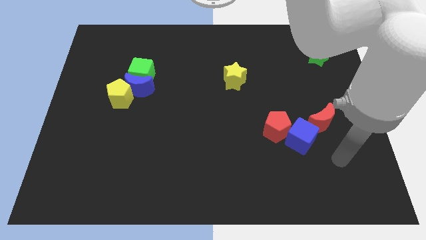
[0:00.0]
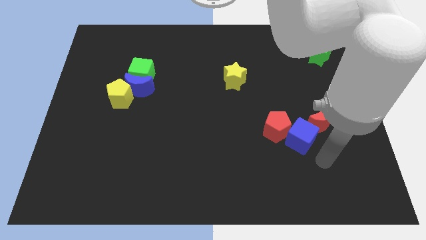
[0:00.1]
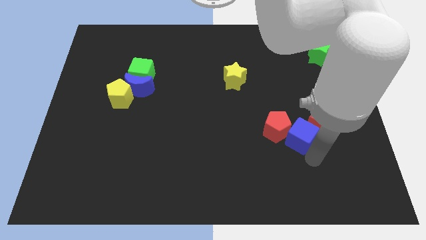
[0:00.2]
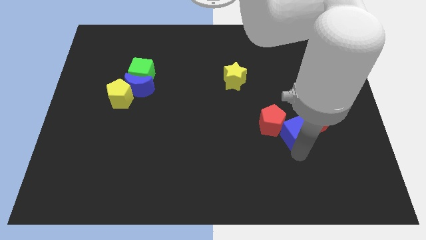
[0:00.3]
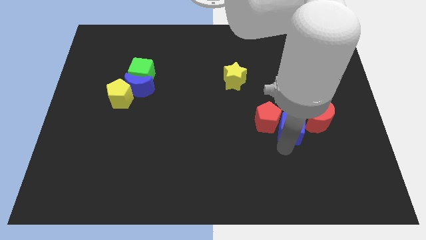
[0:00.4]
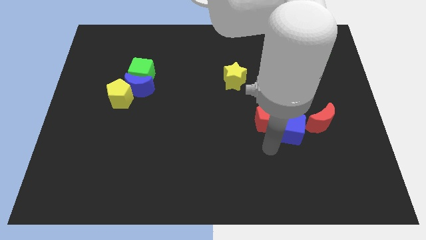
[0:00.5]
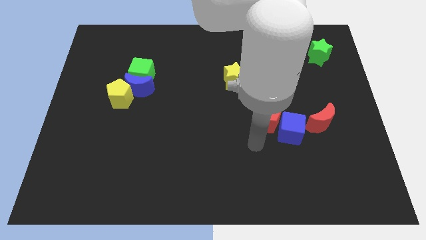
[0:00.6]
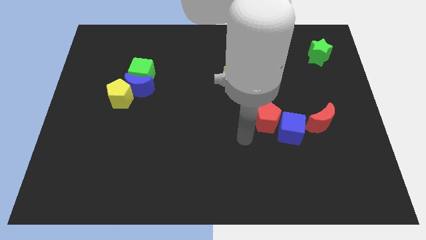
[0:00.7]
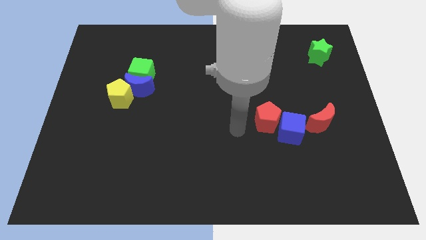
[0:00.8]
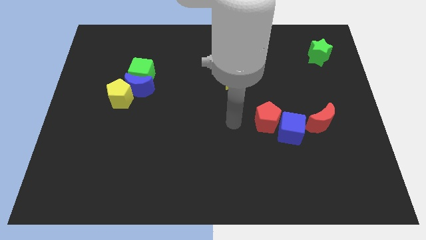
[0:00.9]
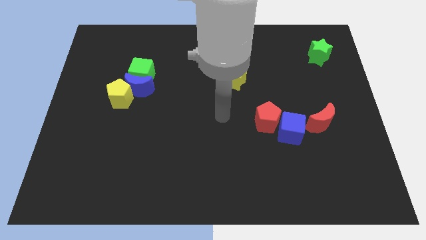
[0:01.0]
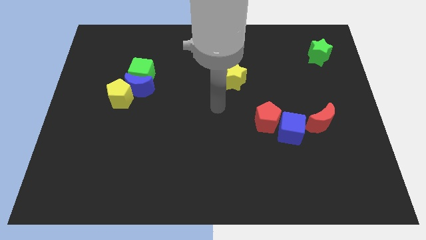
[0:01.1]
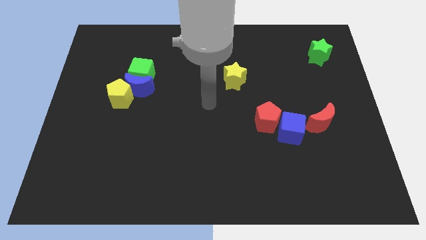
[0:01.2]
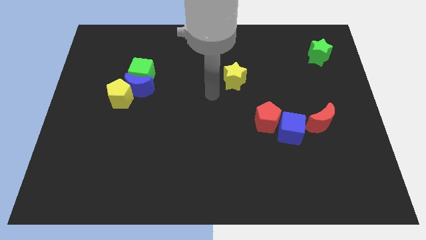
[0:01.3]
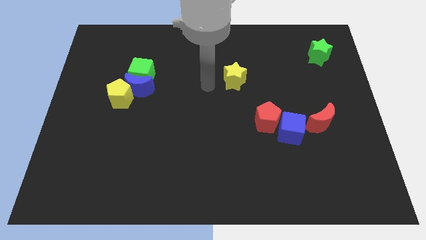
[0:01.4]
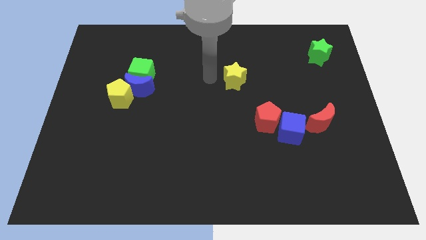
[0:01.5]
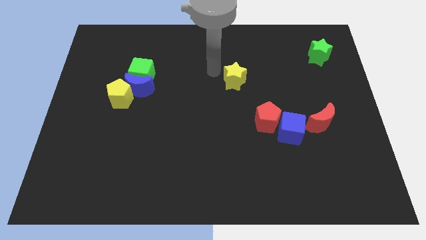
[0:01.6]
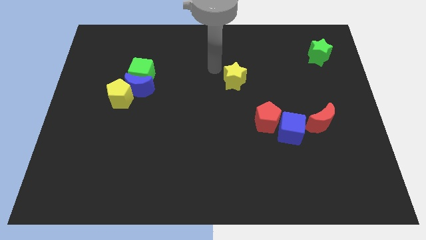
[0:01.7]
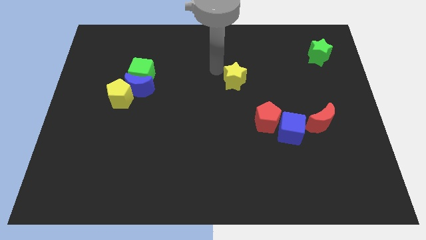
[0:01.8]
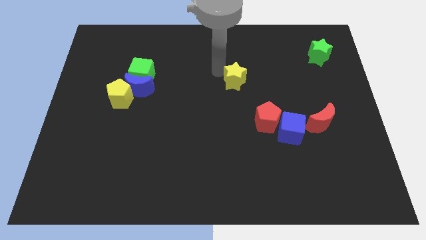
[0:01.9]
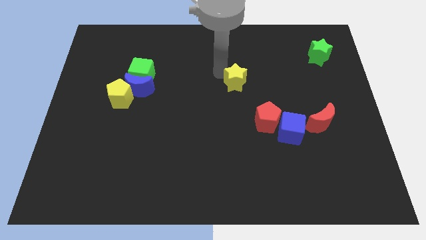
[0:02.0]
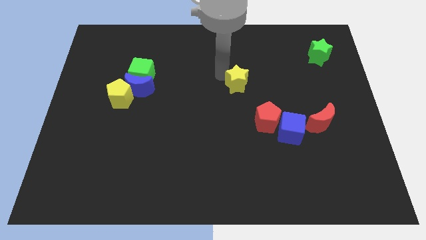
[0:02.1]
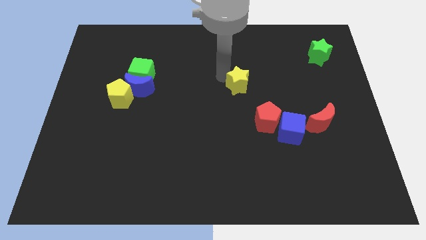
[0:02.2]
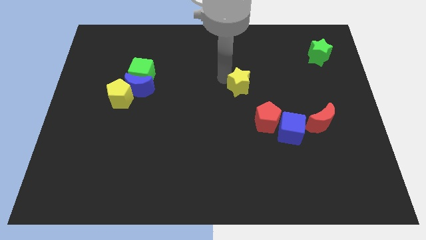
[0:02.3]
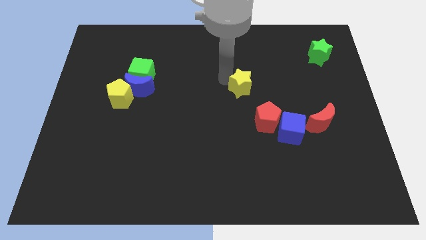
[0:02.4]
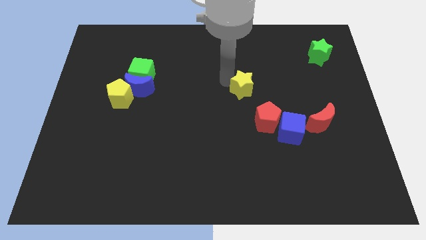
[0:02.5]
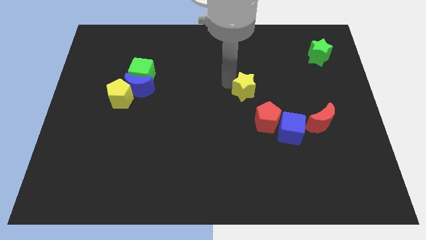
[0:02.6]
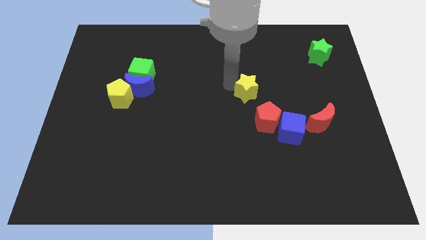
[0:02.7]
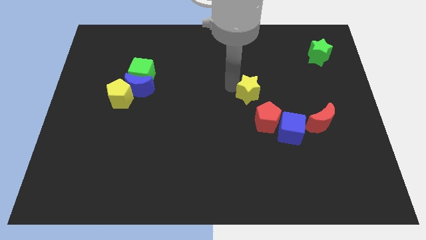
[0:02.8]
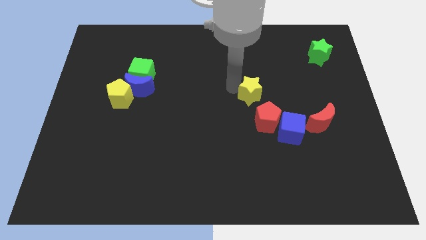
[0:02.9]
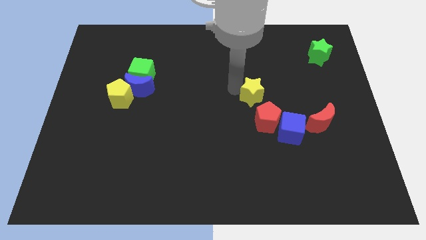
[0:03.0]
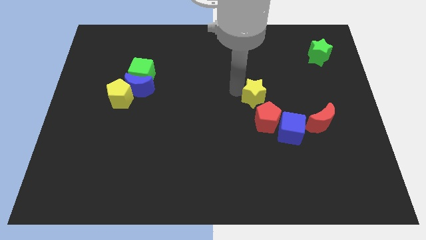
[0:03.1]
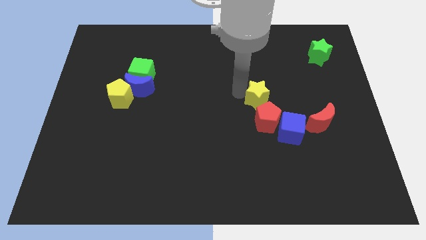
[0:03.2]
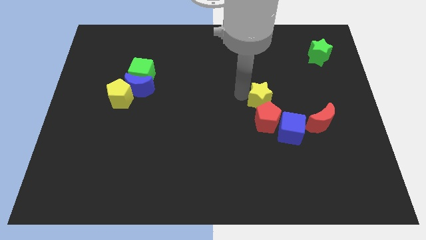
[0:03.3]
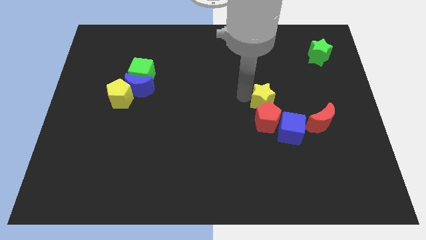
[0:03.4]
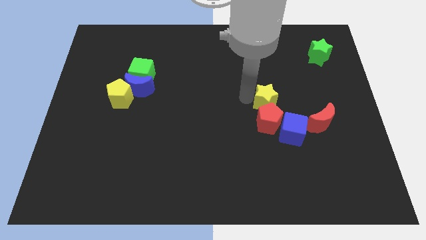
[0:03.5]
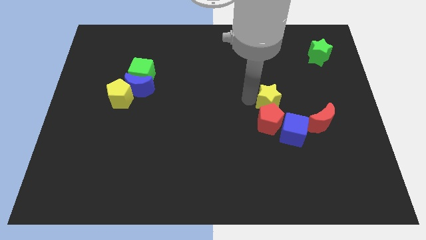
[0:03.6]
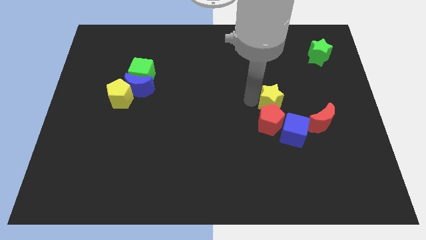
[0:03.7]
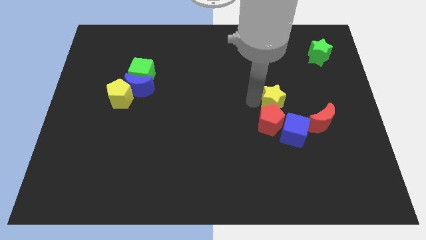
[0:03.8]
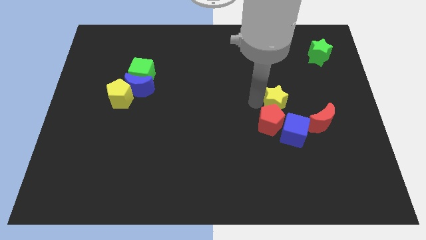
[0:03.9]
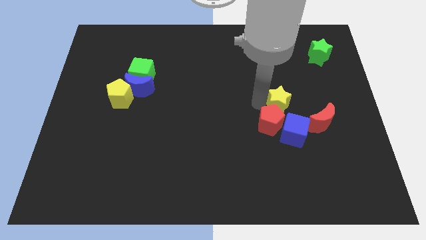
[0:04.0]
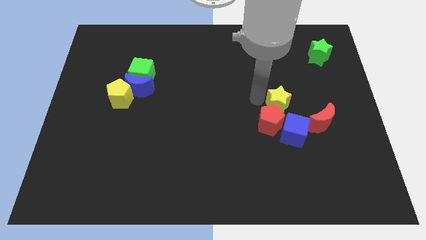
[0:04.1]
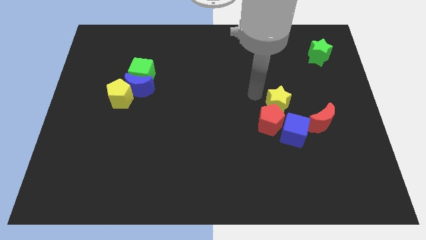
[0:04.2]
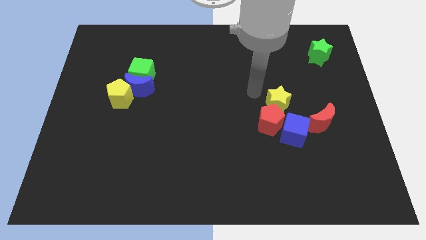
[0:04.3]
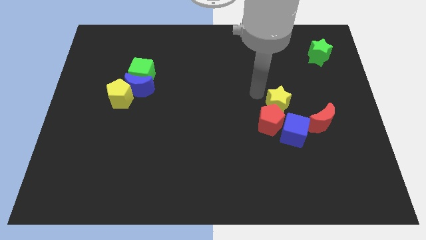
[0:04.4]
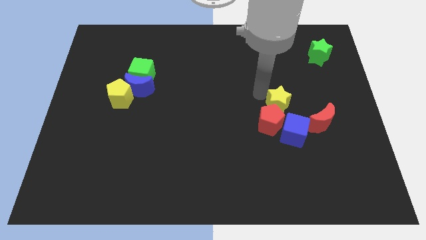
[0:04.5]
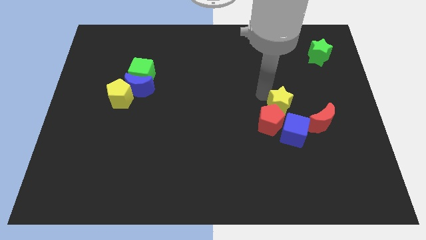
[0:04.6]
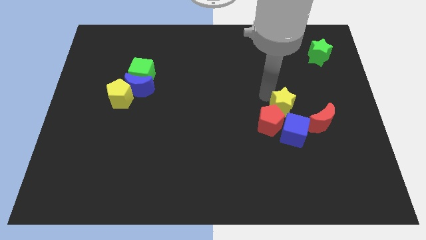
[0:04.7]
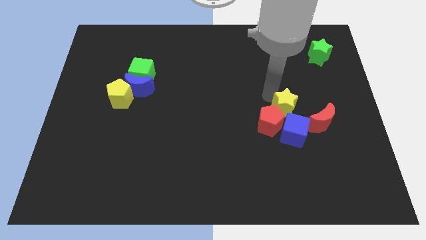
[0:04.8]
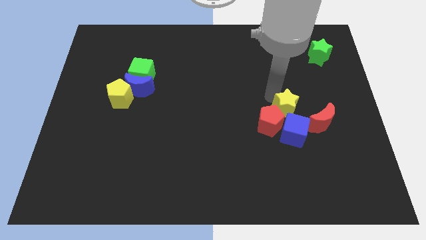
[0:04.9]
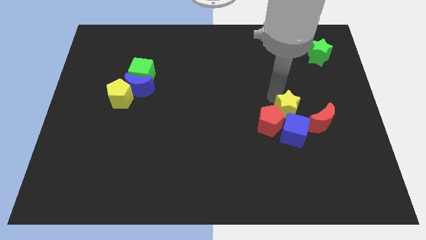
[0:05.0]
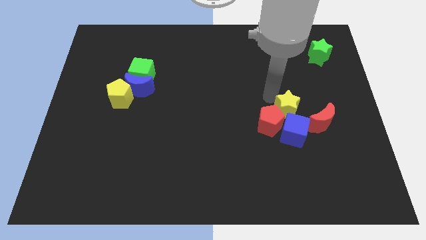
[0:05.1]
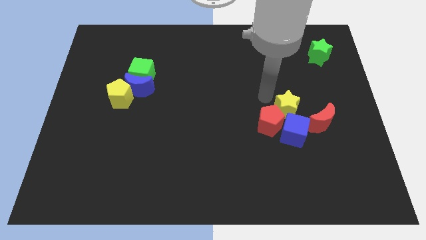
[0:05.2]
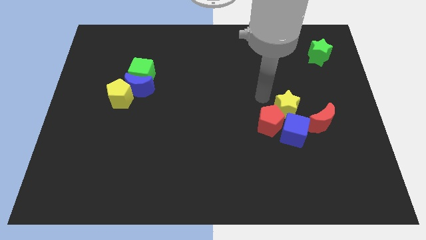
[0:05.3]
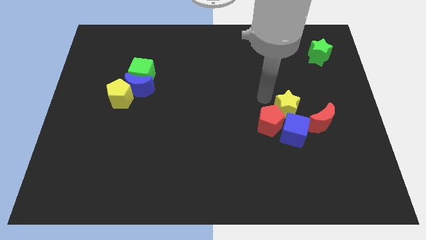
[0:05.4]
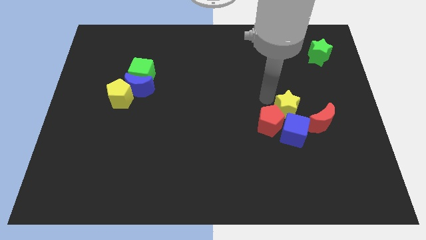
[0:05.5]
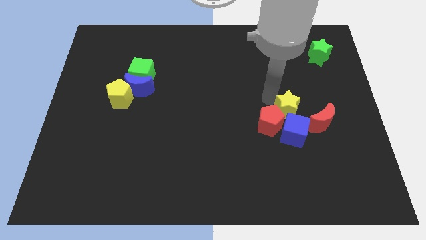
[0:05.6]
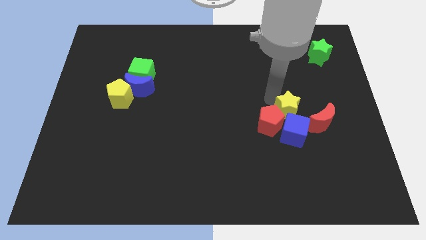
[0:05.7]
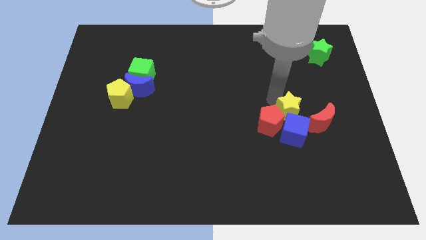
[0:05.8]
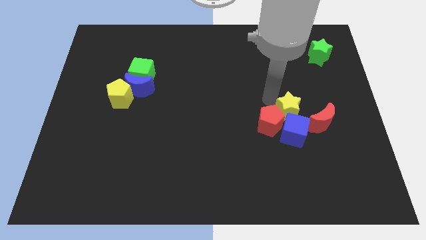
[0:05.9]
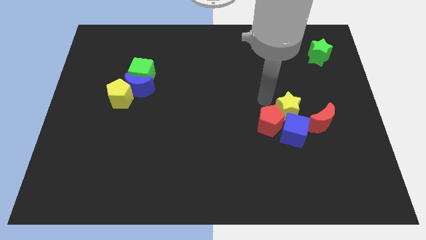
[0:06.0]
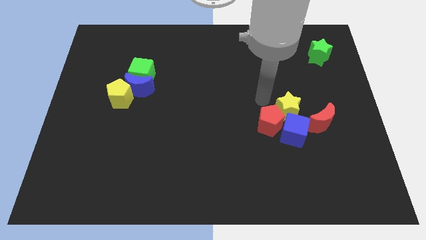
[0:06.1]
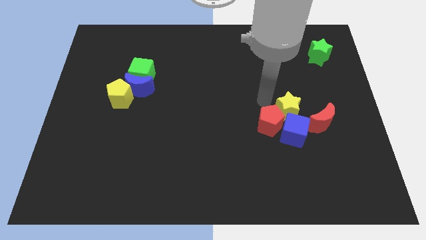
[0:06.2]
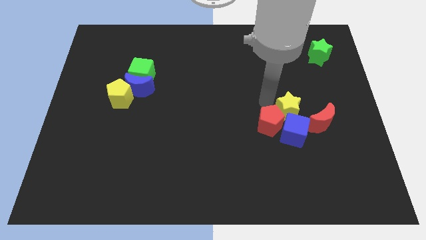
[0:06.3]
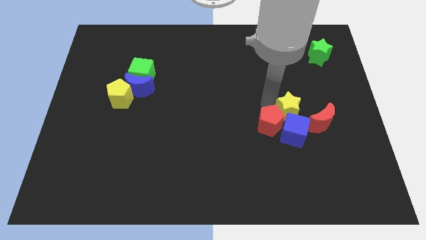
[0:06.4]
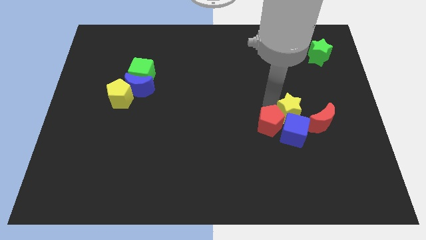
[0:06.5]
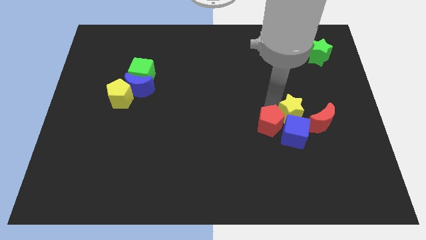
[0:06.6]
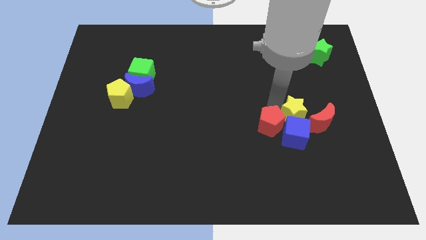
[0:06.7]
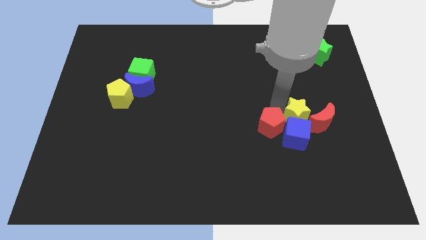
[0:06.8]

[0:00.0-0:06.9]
put the yellow star to the red moon

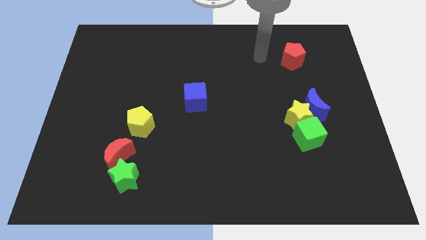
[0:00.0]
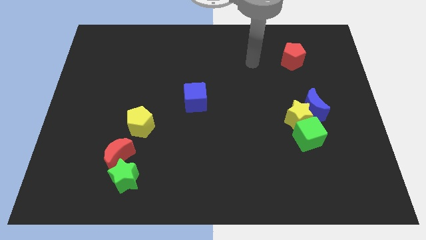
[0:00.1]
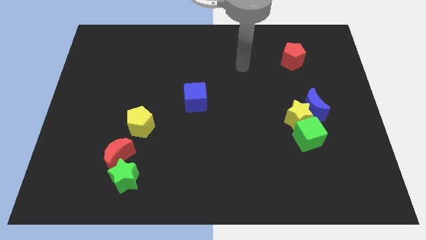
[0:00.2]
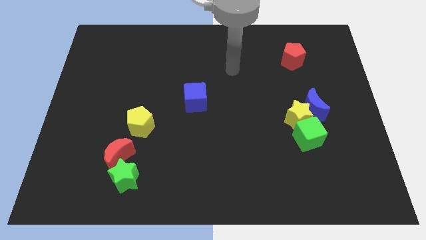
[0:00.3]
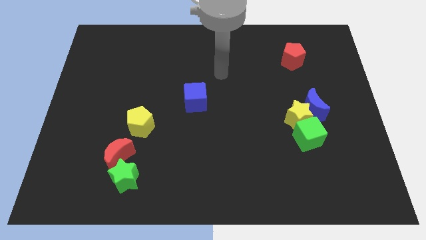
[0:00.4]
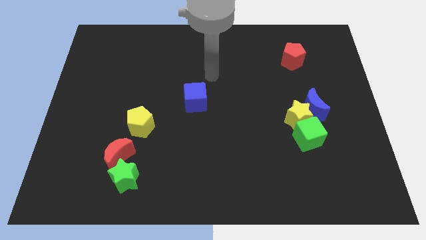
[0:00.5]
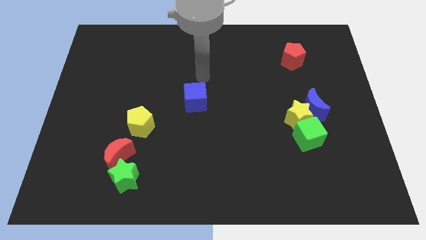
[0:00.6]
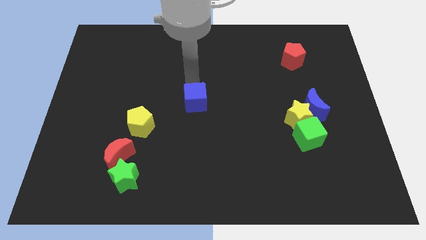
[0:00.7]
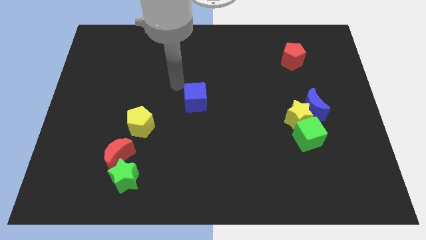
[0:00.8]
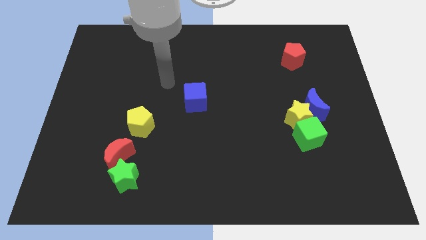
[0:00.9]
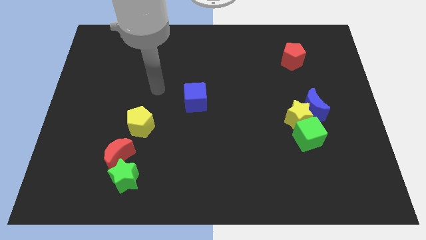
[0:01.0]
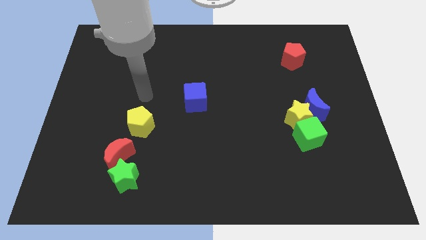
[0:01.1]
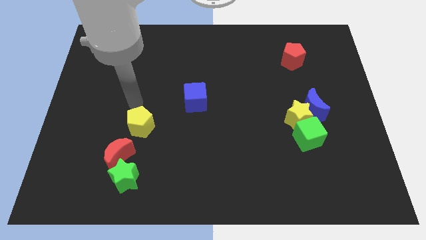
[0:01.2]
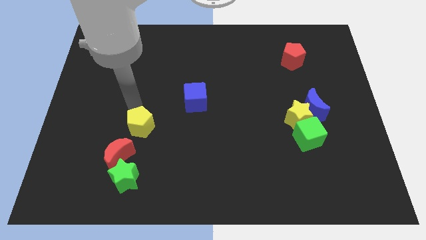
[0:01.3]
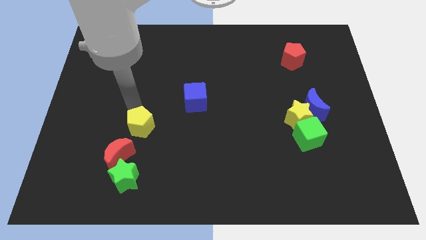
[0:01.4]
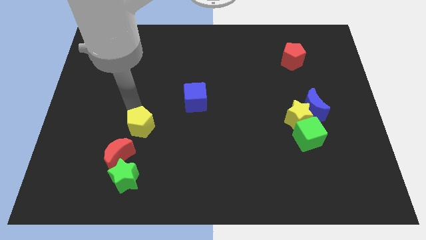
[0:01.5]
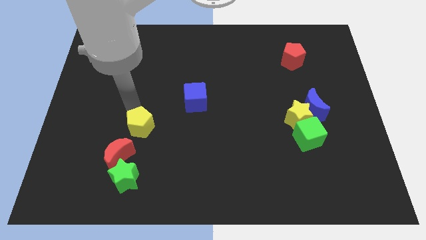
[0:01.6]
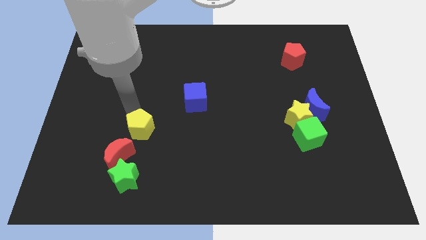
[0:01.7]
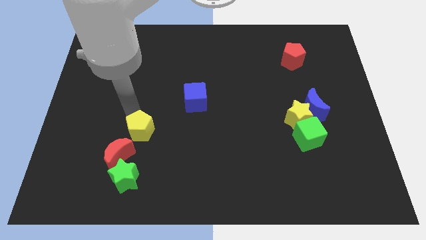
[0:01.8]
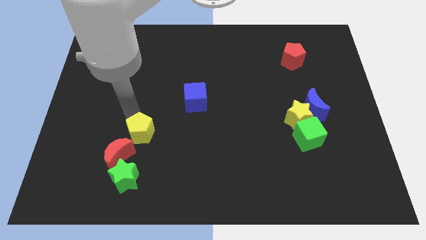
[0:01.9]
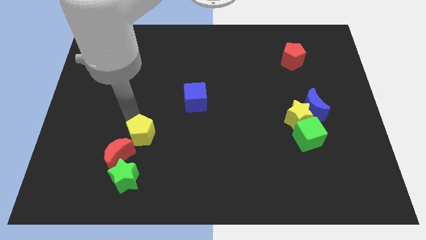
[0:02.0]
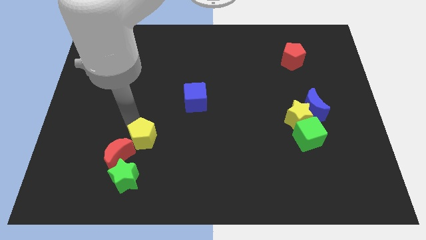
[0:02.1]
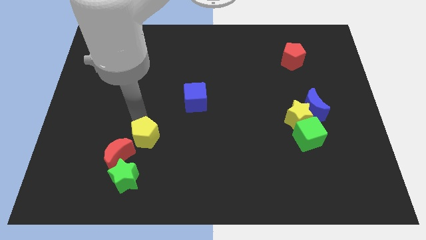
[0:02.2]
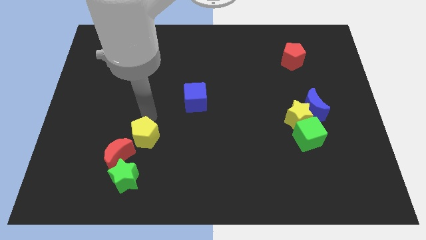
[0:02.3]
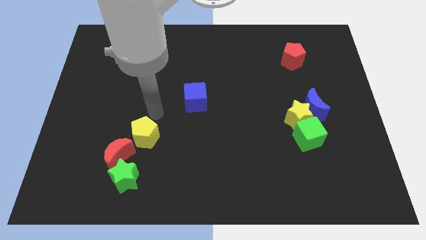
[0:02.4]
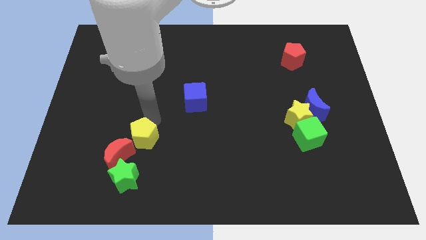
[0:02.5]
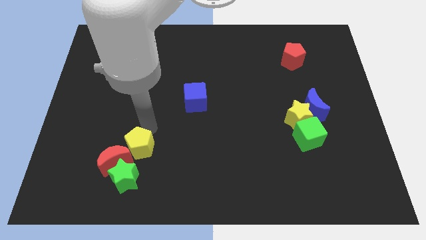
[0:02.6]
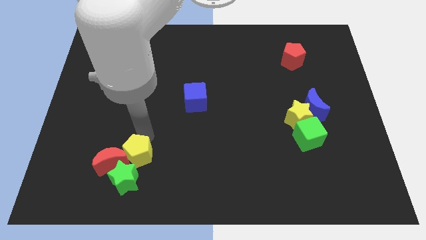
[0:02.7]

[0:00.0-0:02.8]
put the yellow pentagon towards the green star
